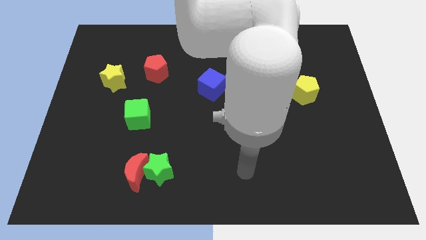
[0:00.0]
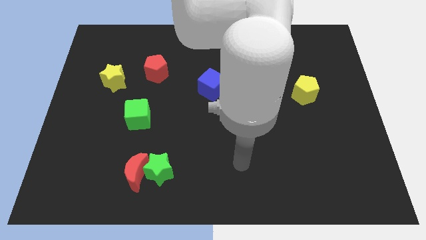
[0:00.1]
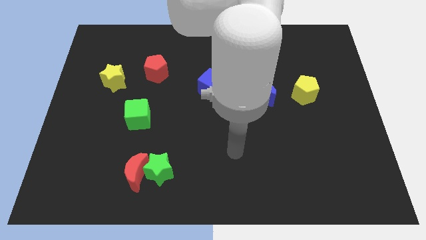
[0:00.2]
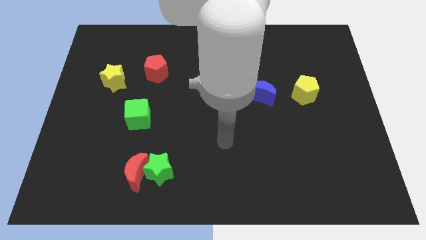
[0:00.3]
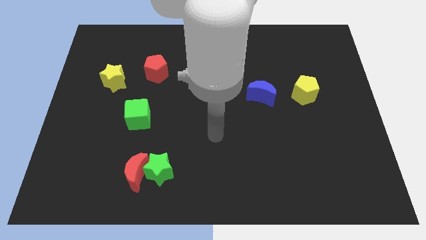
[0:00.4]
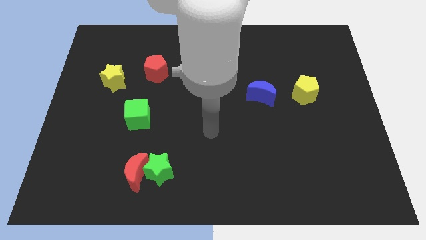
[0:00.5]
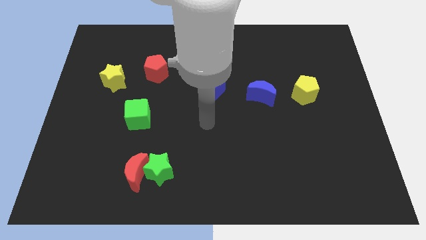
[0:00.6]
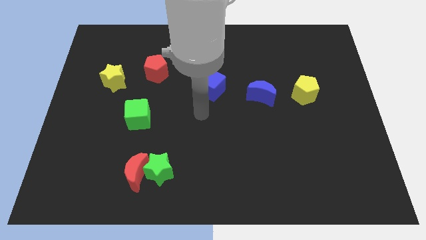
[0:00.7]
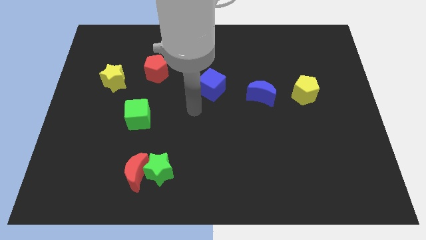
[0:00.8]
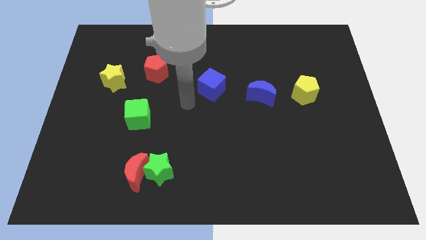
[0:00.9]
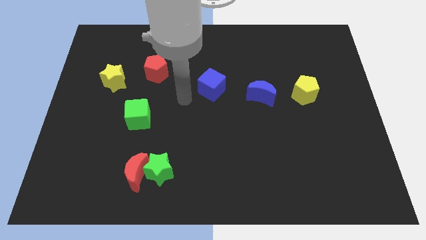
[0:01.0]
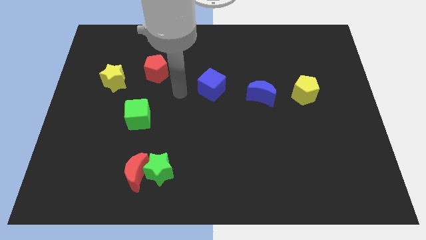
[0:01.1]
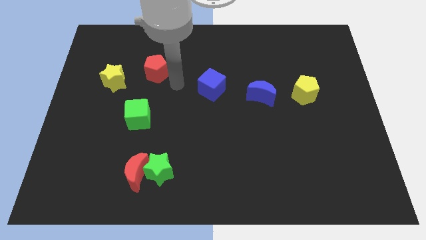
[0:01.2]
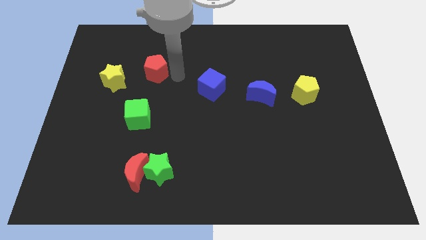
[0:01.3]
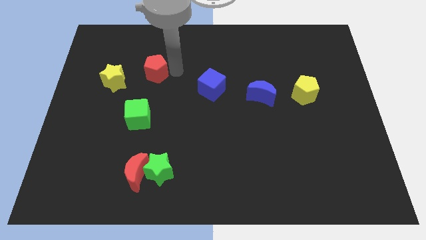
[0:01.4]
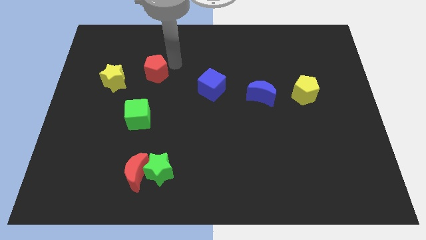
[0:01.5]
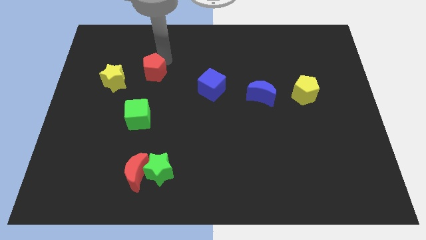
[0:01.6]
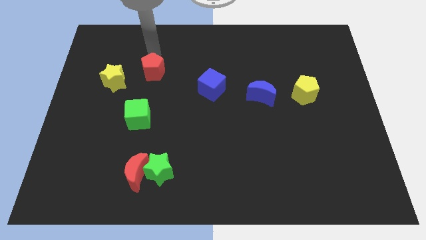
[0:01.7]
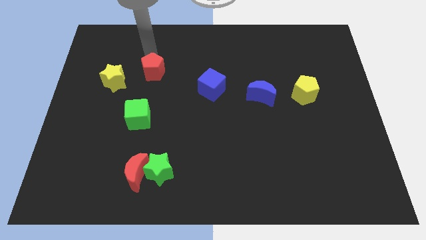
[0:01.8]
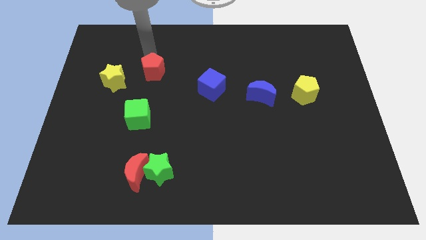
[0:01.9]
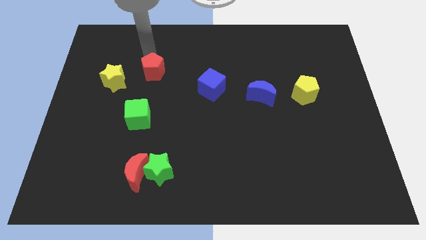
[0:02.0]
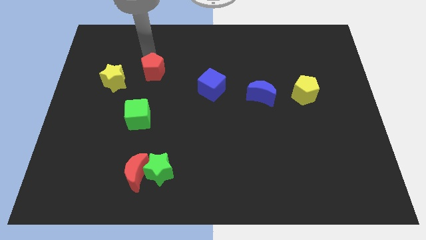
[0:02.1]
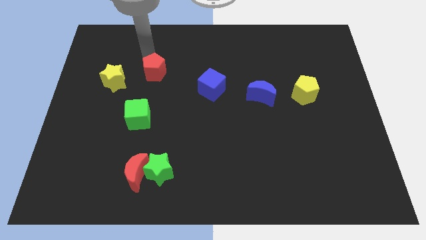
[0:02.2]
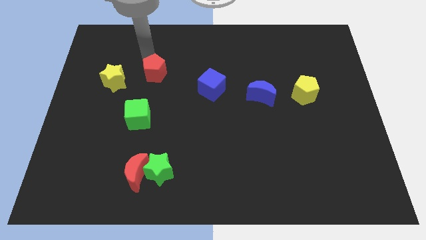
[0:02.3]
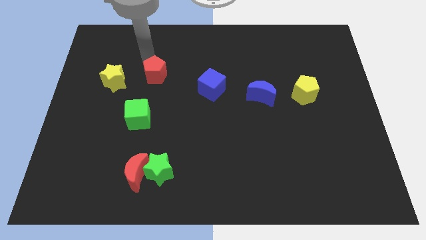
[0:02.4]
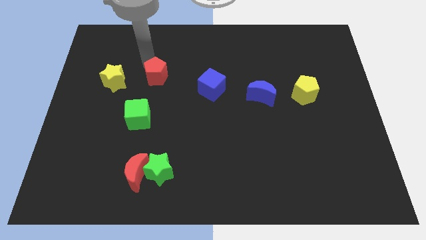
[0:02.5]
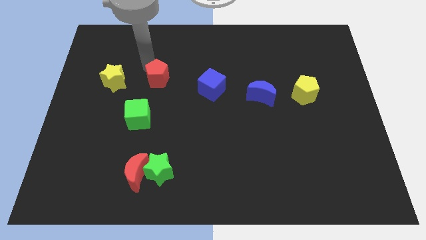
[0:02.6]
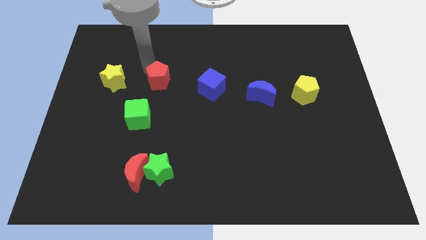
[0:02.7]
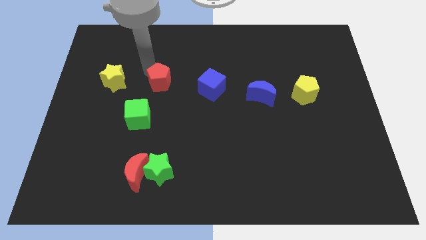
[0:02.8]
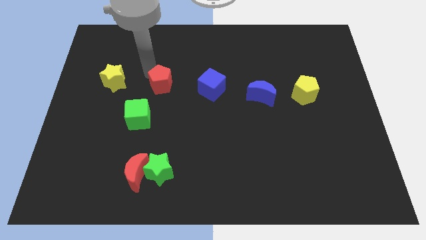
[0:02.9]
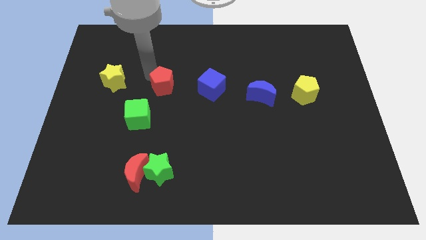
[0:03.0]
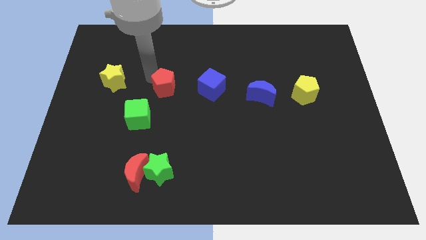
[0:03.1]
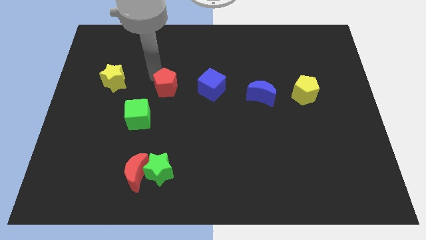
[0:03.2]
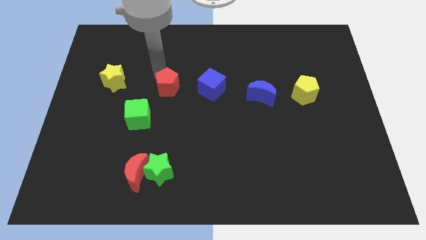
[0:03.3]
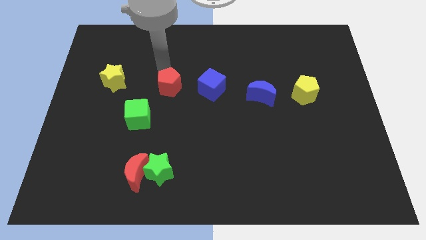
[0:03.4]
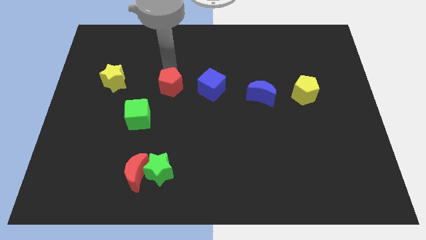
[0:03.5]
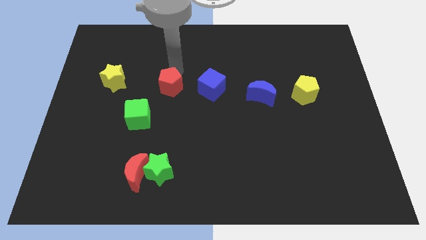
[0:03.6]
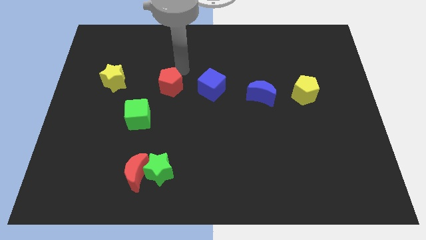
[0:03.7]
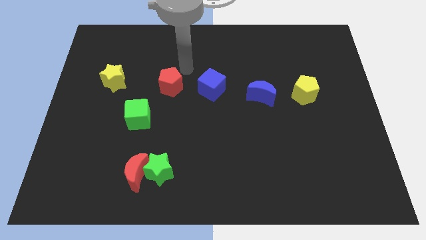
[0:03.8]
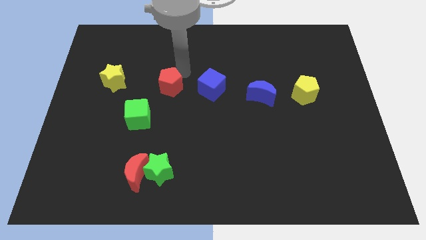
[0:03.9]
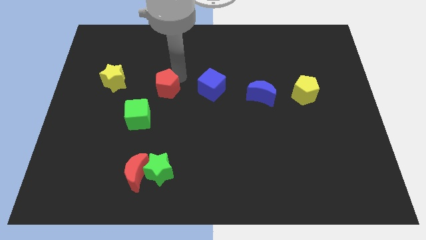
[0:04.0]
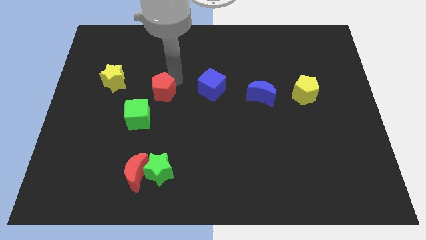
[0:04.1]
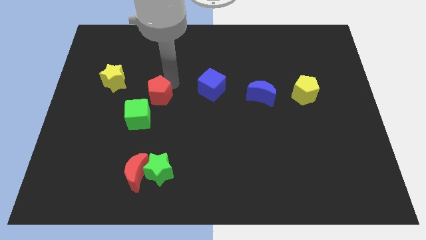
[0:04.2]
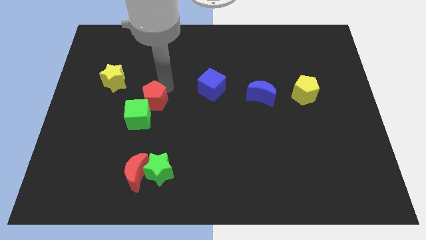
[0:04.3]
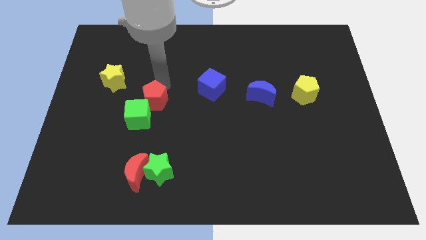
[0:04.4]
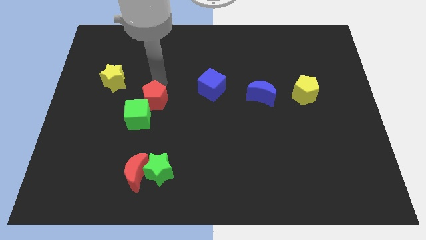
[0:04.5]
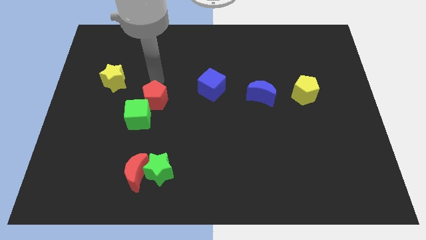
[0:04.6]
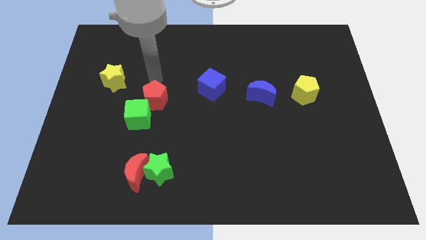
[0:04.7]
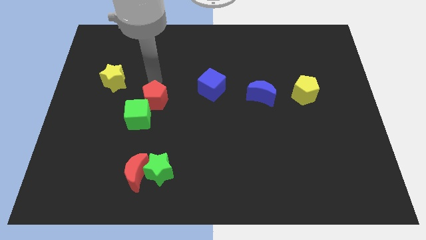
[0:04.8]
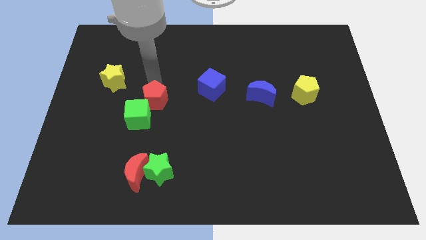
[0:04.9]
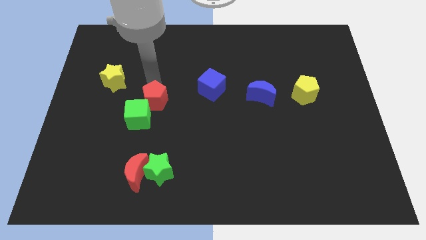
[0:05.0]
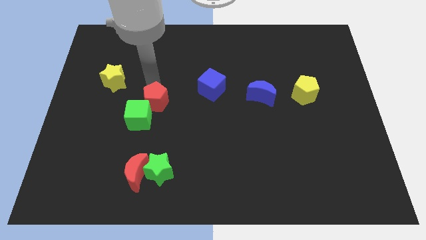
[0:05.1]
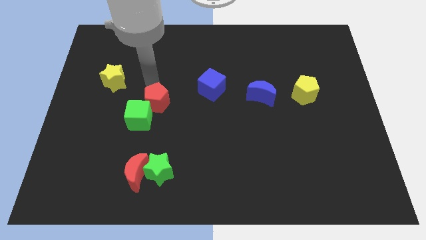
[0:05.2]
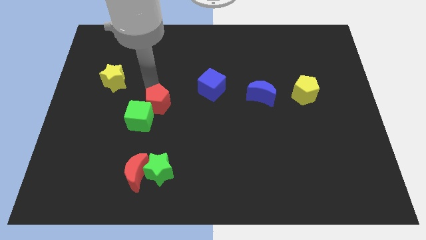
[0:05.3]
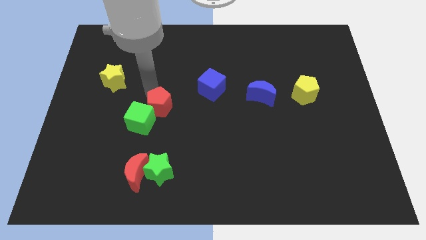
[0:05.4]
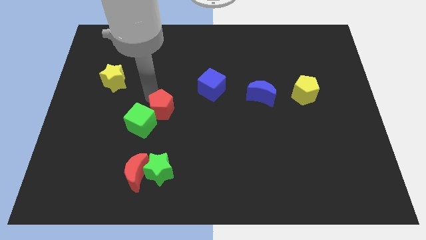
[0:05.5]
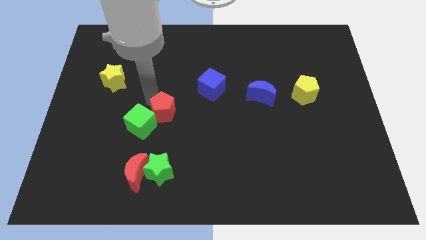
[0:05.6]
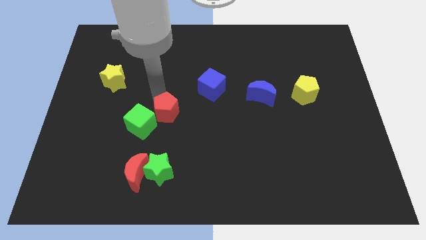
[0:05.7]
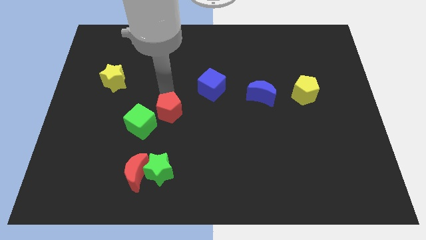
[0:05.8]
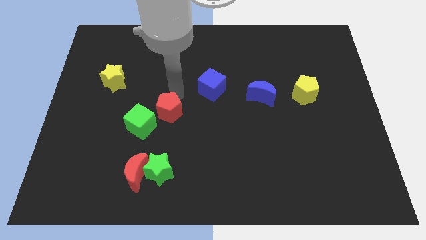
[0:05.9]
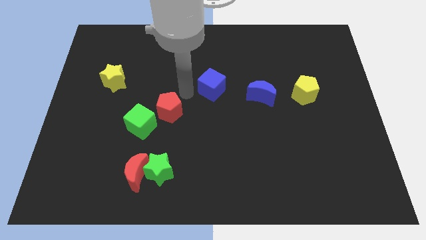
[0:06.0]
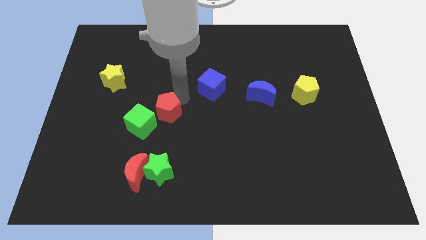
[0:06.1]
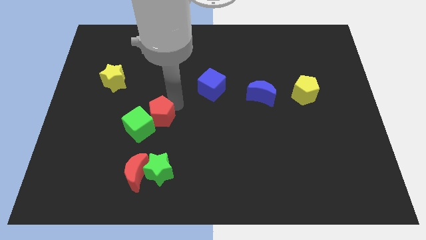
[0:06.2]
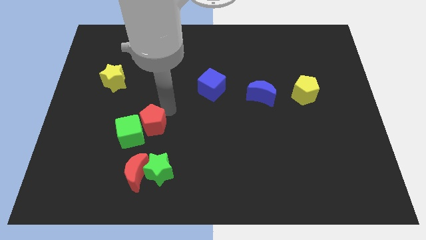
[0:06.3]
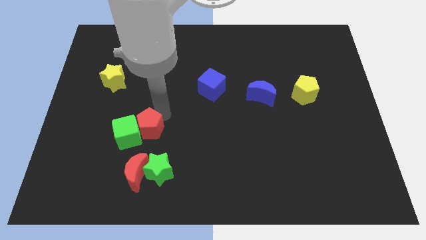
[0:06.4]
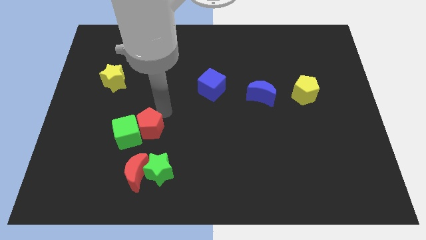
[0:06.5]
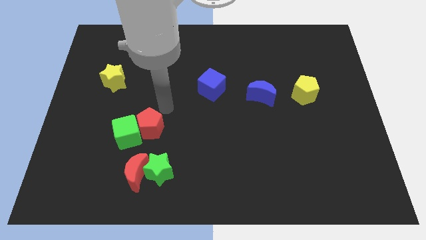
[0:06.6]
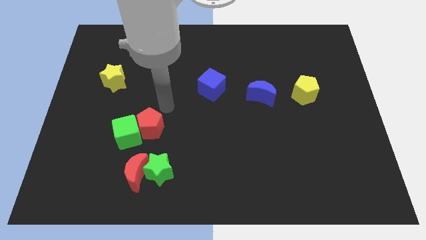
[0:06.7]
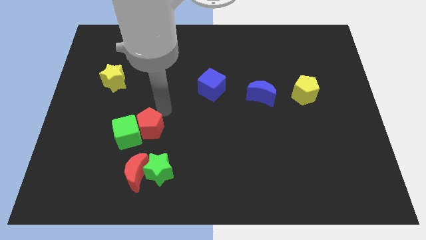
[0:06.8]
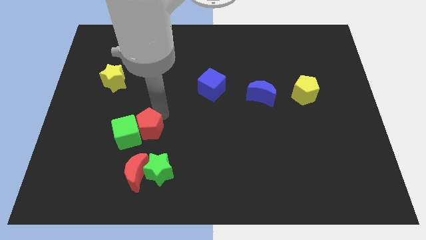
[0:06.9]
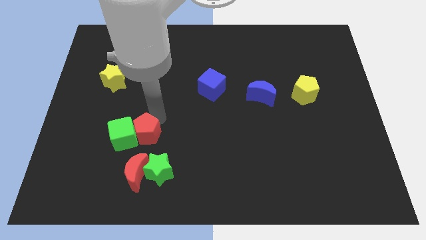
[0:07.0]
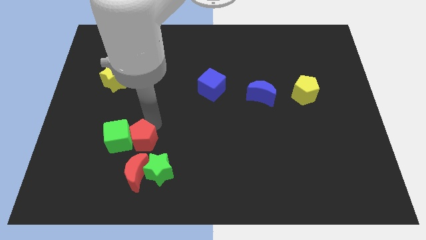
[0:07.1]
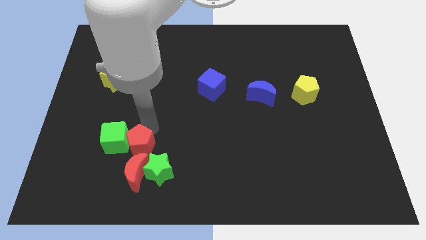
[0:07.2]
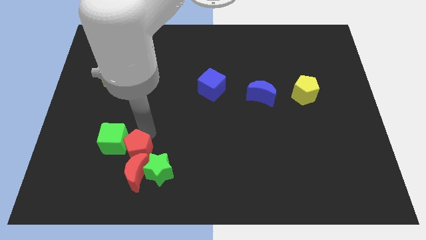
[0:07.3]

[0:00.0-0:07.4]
put the red pentagon next to the red moon
